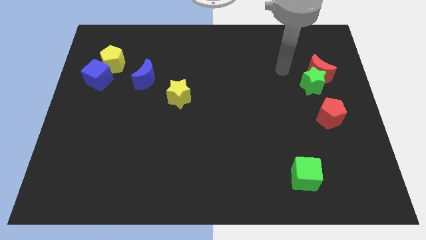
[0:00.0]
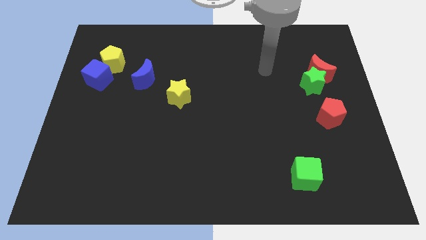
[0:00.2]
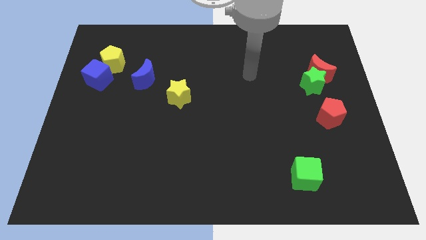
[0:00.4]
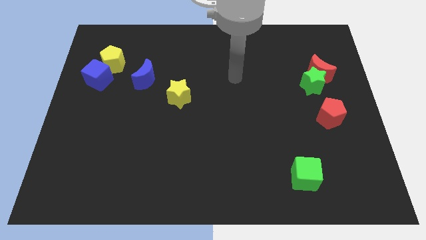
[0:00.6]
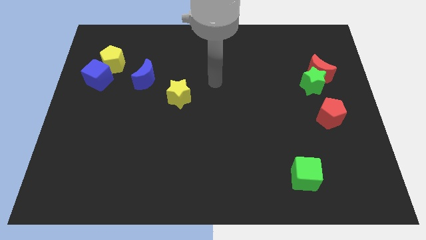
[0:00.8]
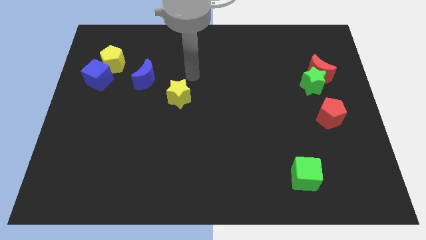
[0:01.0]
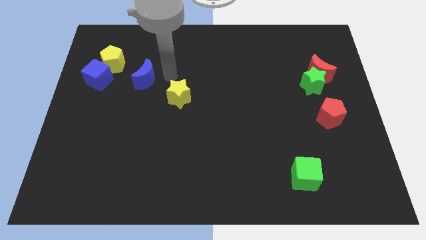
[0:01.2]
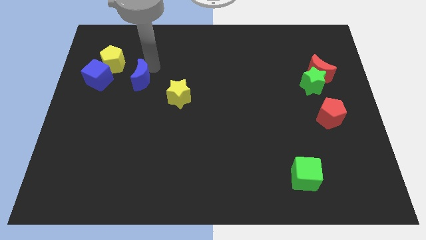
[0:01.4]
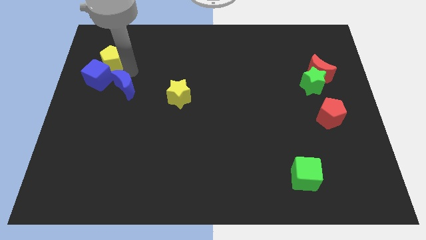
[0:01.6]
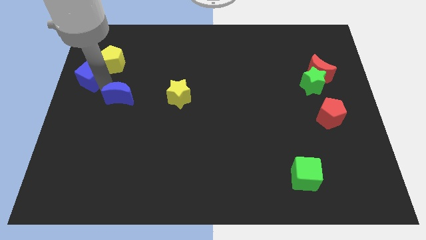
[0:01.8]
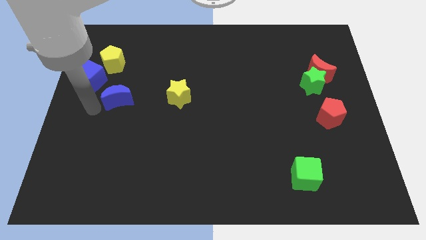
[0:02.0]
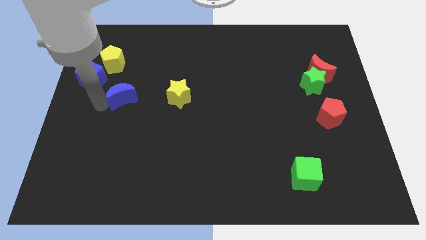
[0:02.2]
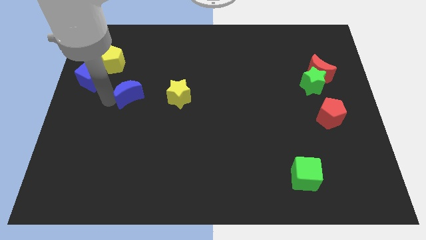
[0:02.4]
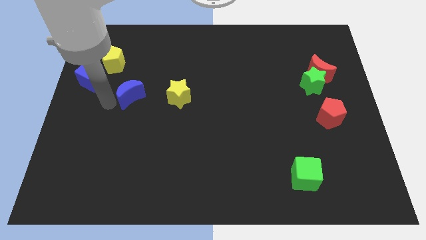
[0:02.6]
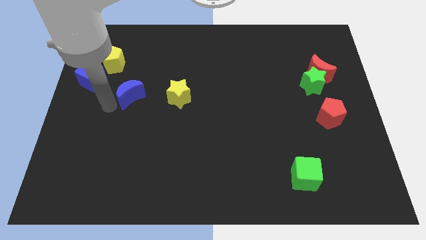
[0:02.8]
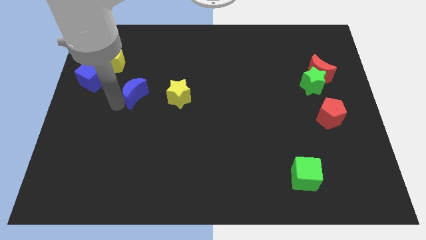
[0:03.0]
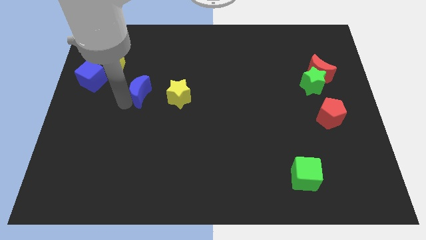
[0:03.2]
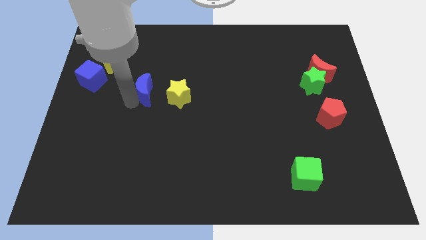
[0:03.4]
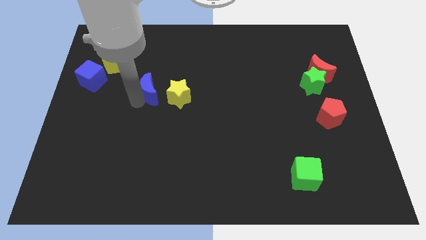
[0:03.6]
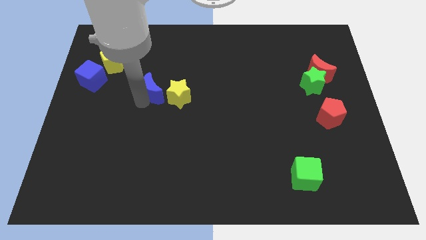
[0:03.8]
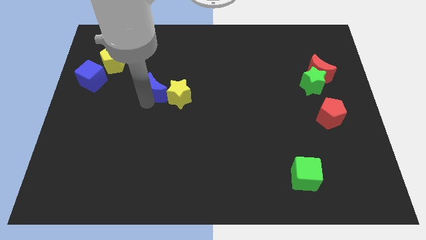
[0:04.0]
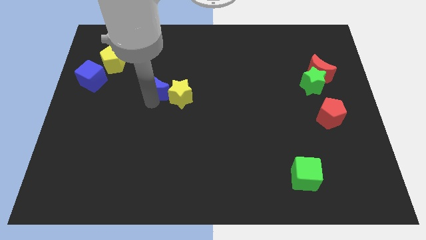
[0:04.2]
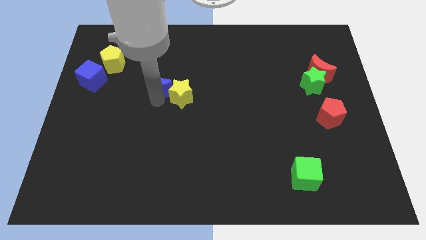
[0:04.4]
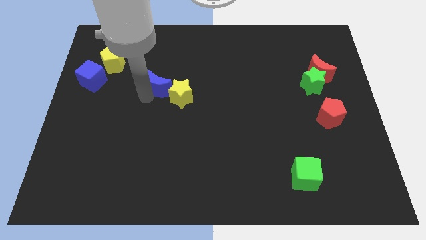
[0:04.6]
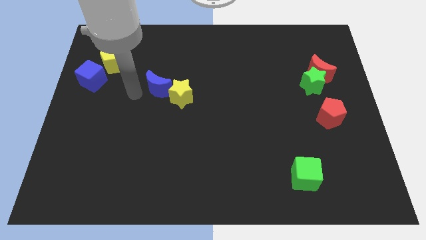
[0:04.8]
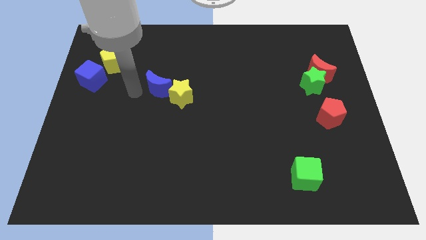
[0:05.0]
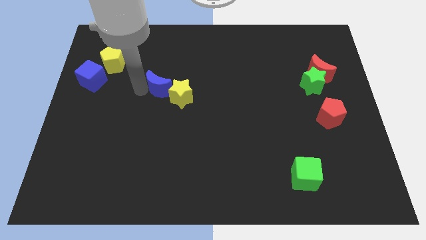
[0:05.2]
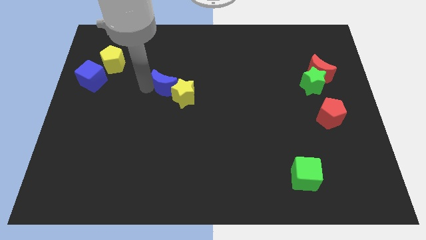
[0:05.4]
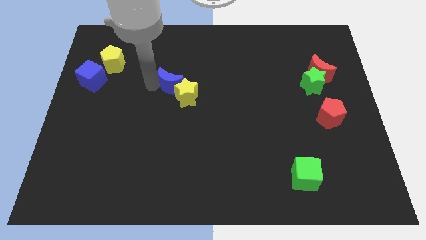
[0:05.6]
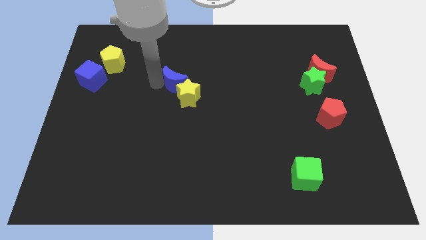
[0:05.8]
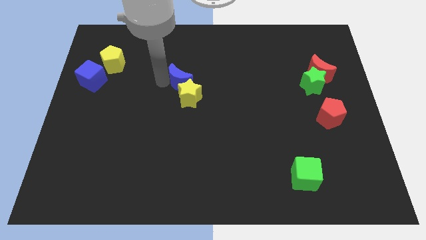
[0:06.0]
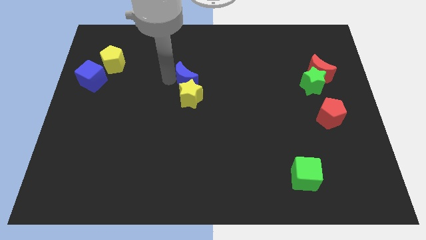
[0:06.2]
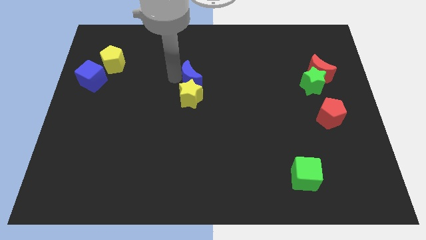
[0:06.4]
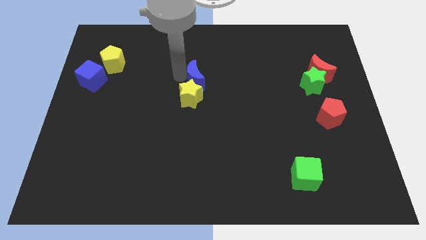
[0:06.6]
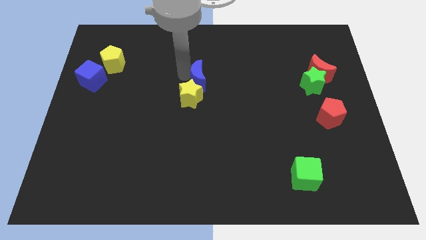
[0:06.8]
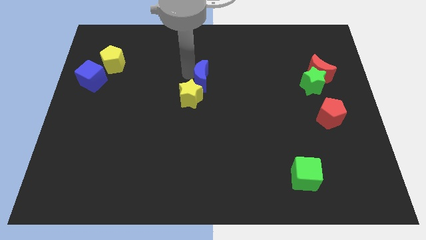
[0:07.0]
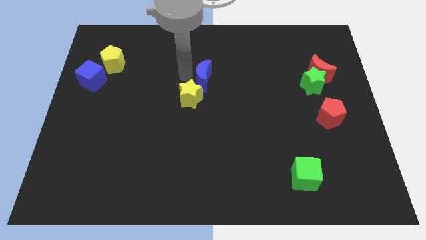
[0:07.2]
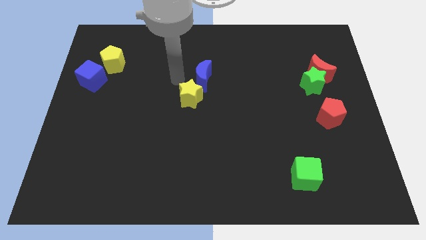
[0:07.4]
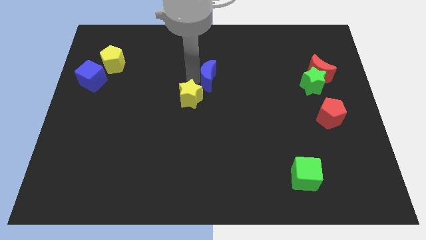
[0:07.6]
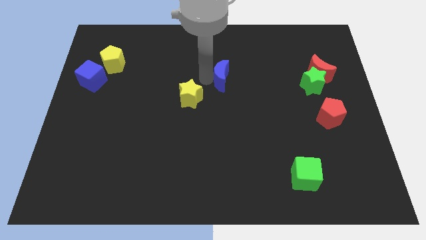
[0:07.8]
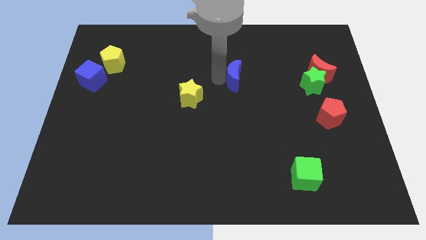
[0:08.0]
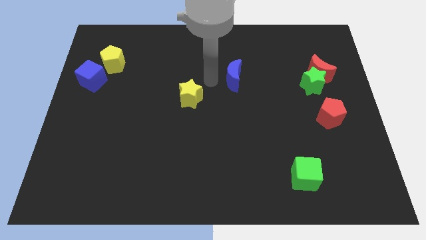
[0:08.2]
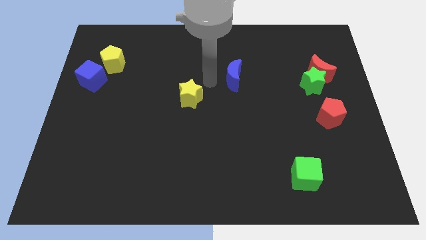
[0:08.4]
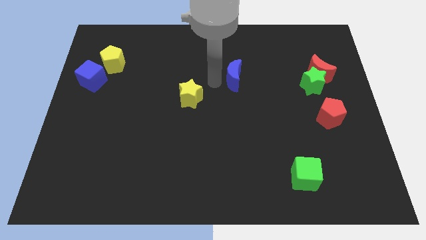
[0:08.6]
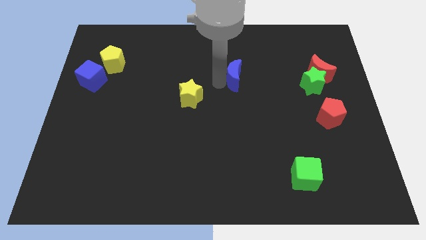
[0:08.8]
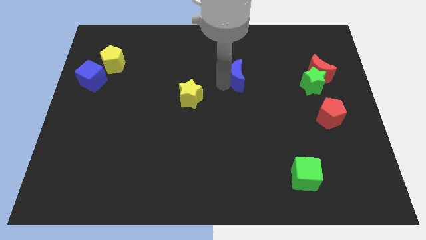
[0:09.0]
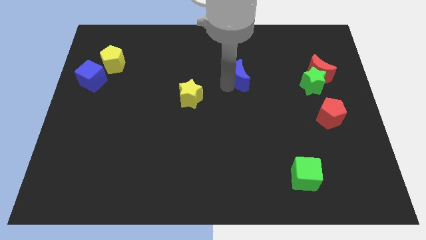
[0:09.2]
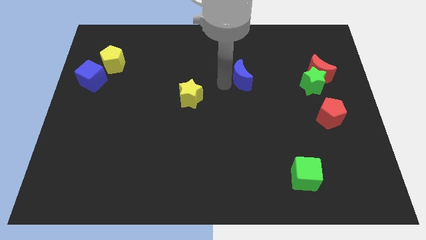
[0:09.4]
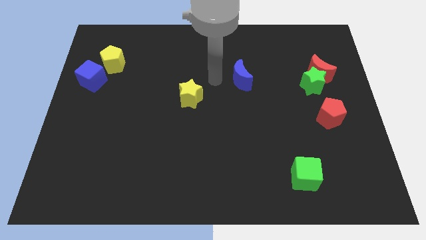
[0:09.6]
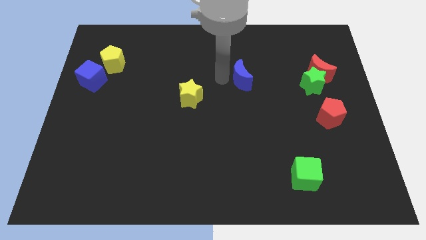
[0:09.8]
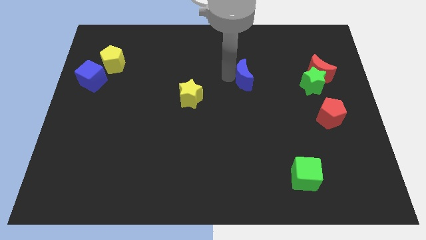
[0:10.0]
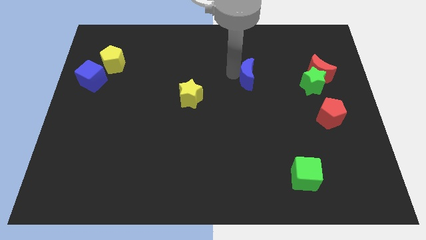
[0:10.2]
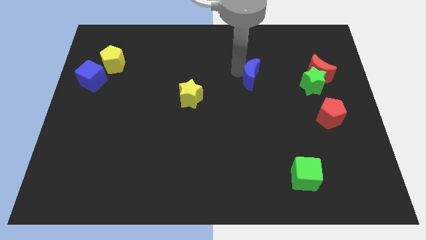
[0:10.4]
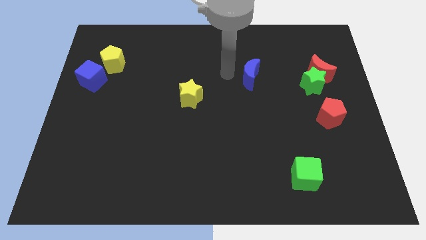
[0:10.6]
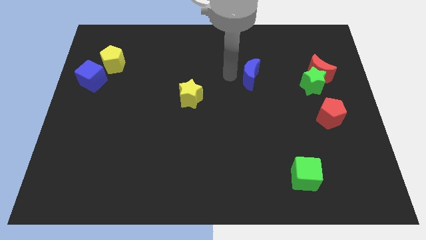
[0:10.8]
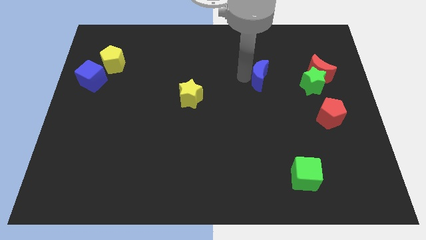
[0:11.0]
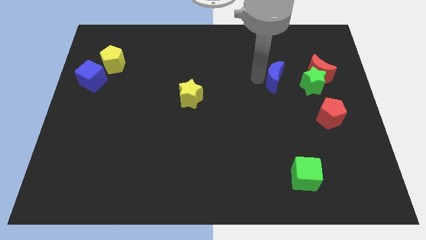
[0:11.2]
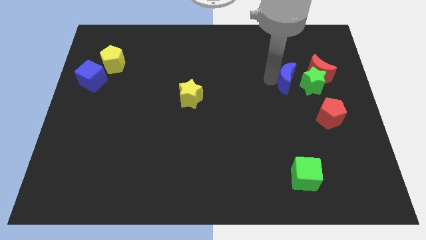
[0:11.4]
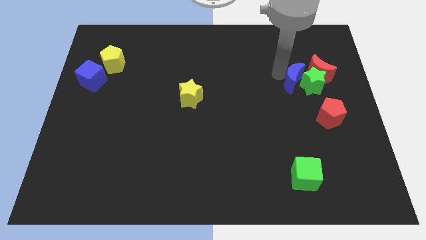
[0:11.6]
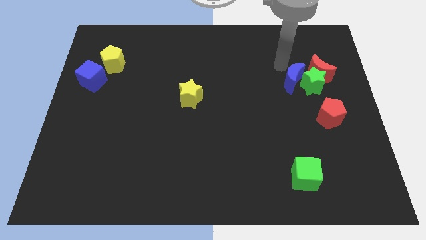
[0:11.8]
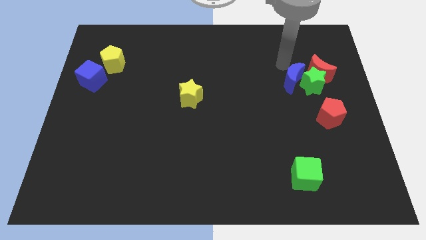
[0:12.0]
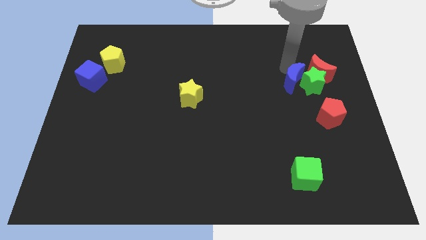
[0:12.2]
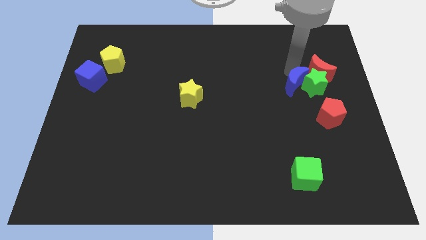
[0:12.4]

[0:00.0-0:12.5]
push the blue moon diagonally up and to the left of the red pentagon

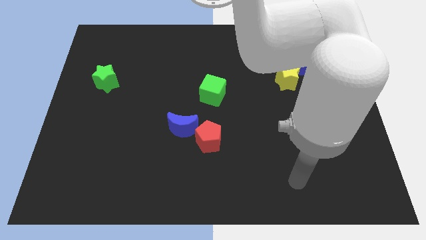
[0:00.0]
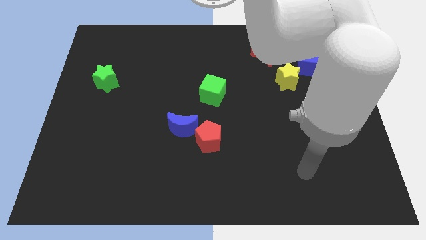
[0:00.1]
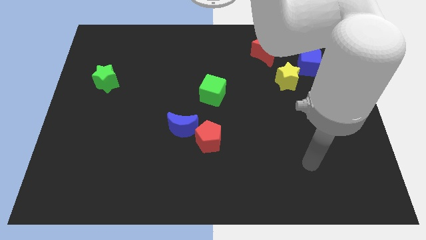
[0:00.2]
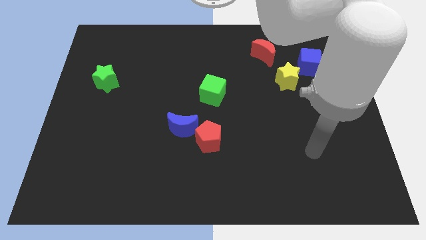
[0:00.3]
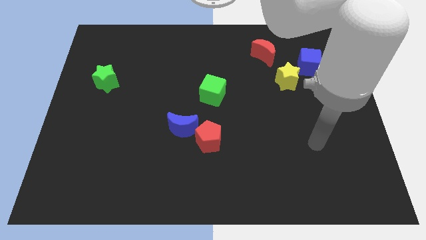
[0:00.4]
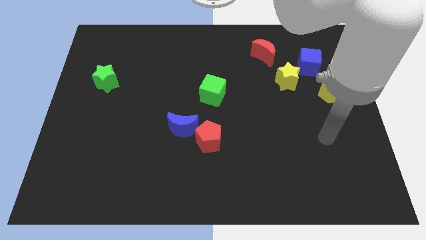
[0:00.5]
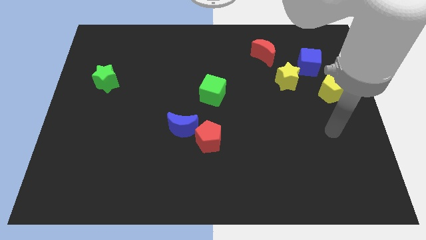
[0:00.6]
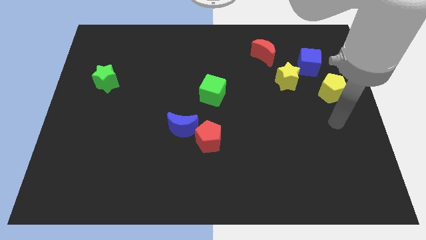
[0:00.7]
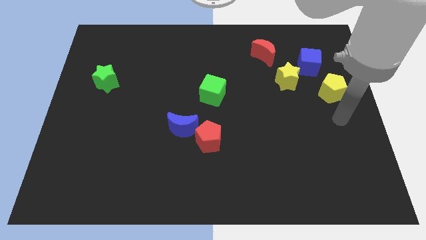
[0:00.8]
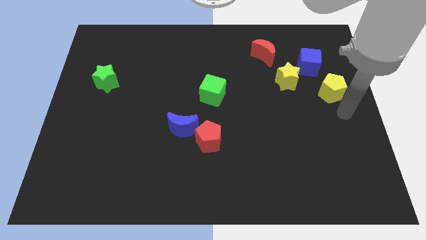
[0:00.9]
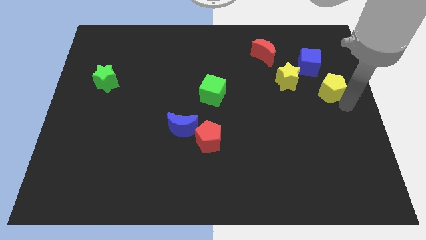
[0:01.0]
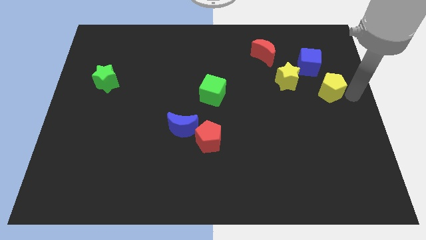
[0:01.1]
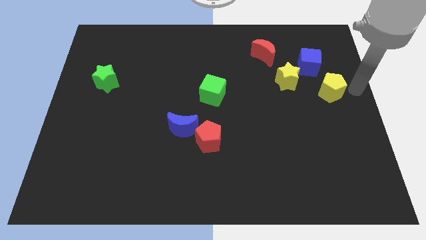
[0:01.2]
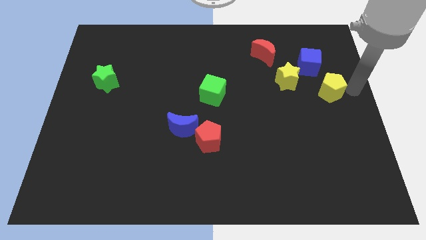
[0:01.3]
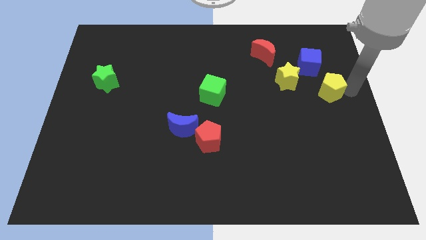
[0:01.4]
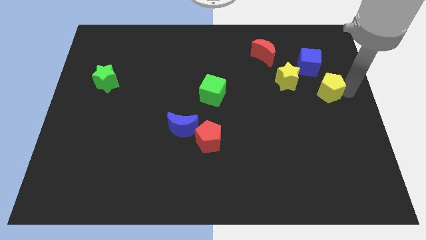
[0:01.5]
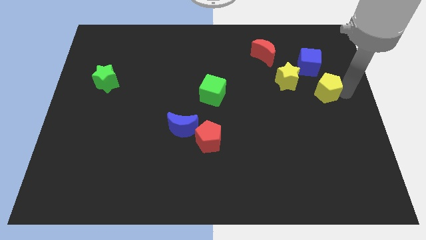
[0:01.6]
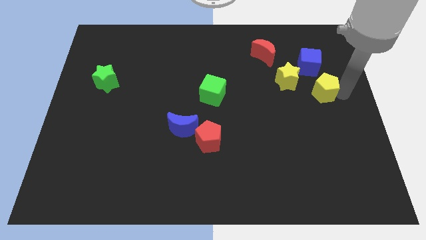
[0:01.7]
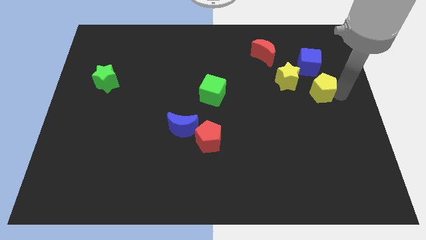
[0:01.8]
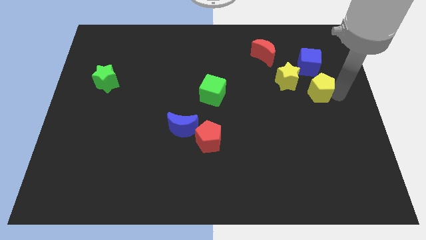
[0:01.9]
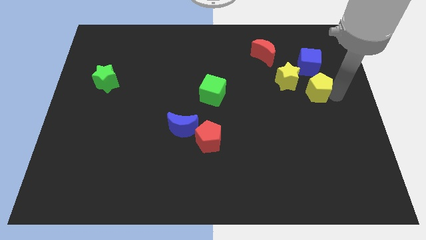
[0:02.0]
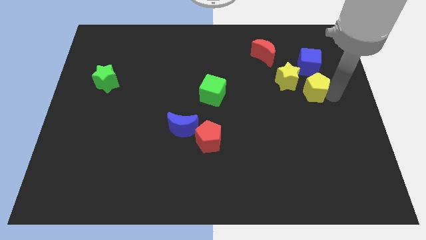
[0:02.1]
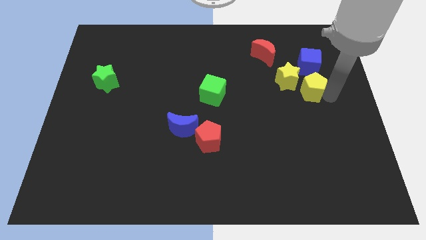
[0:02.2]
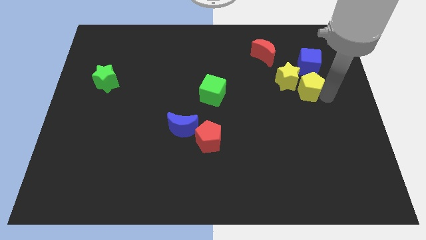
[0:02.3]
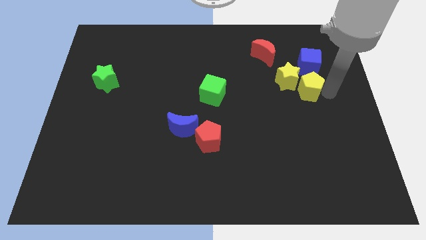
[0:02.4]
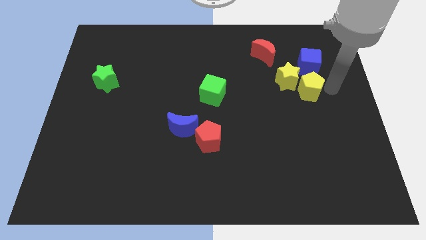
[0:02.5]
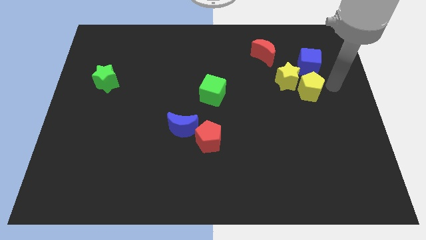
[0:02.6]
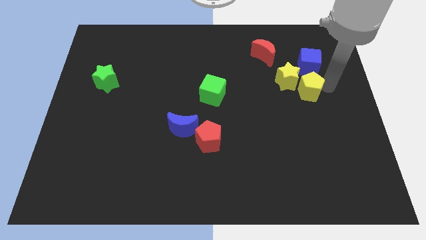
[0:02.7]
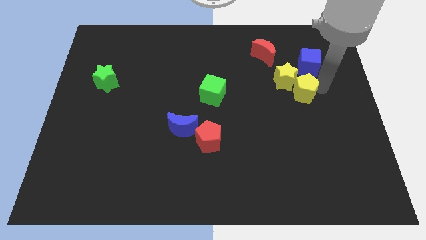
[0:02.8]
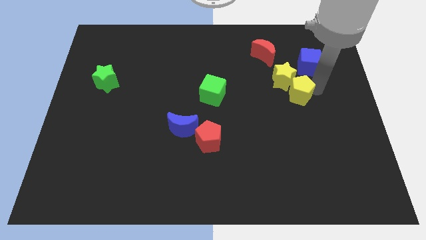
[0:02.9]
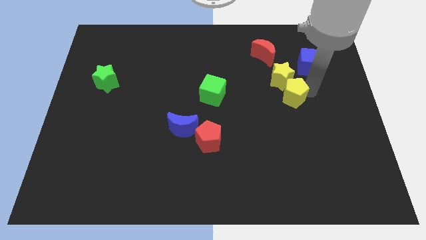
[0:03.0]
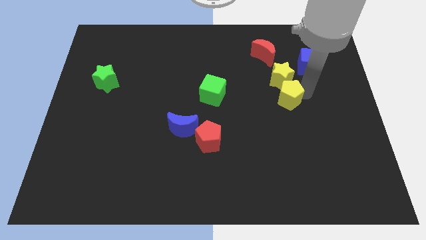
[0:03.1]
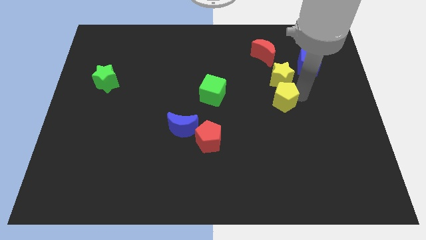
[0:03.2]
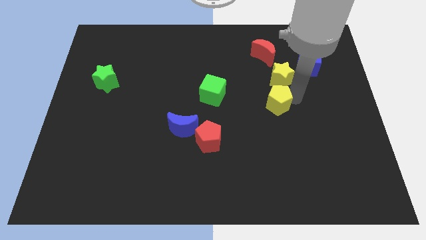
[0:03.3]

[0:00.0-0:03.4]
move the yellow pentagon to the right of the green cube
